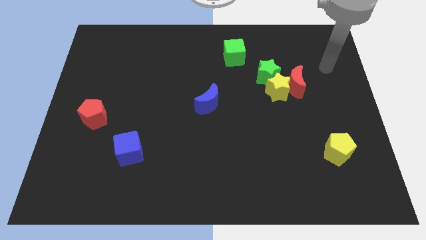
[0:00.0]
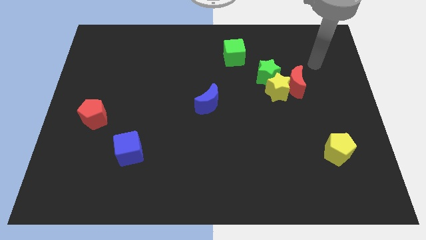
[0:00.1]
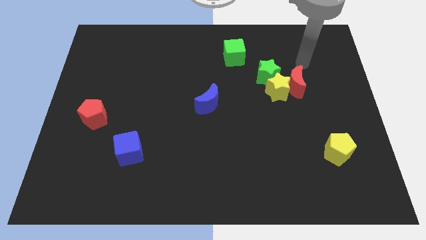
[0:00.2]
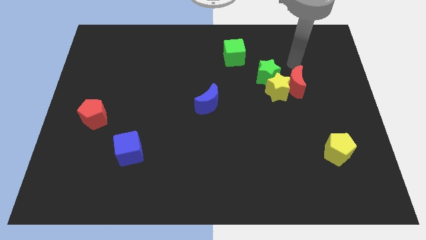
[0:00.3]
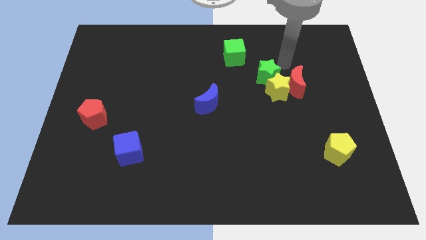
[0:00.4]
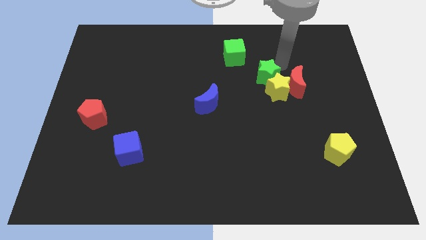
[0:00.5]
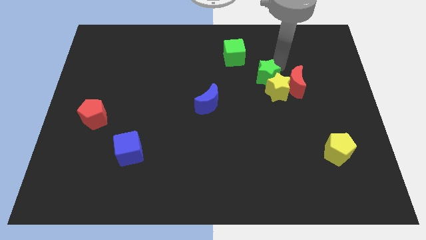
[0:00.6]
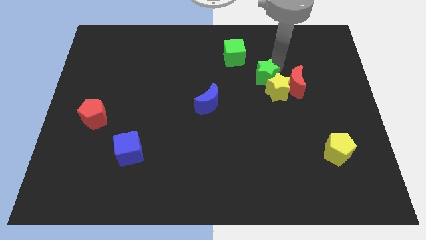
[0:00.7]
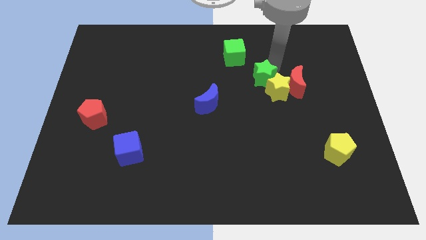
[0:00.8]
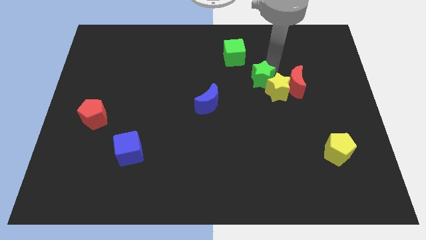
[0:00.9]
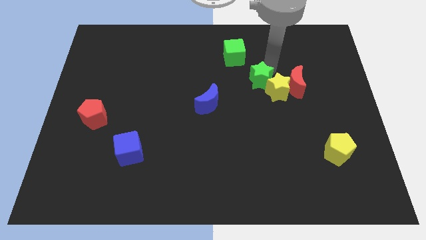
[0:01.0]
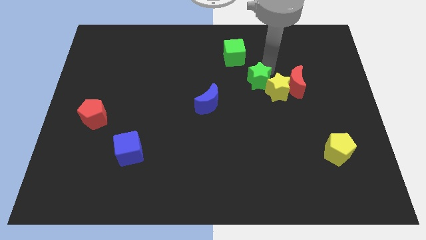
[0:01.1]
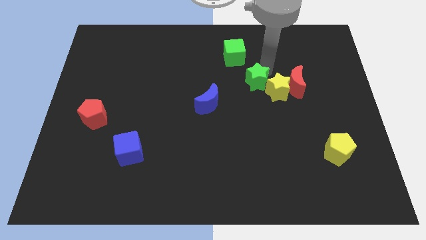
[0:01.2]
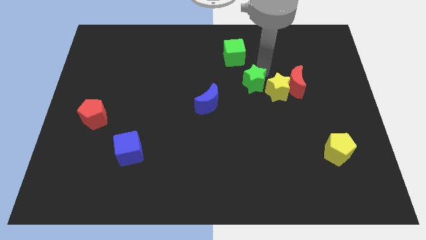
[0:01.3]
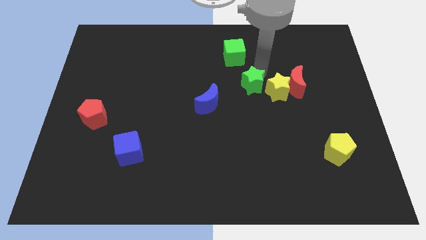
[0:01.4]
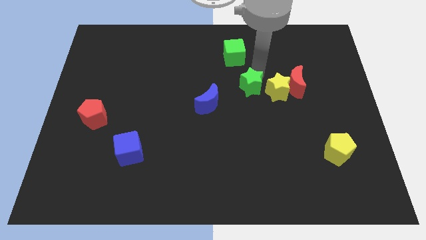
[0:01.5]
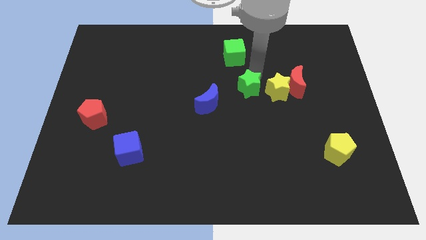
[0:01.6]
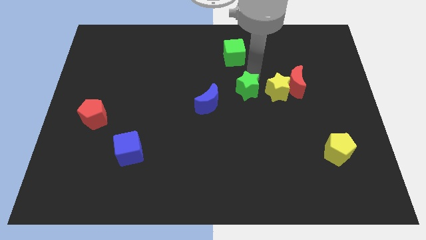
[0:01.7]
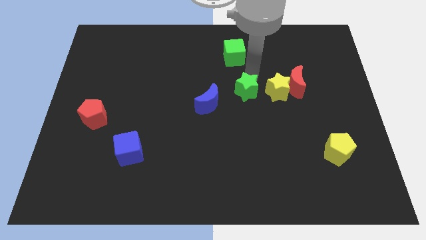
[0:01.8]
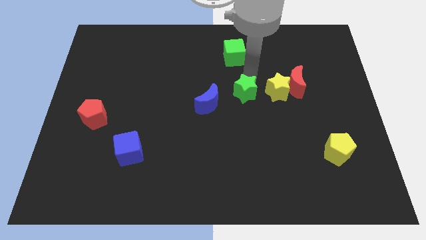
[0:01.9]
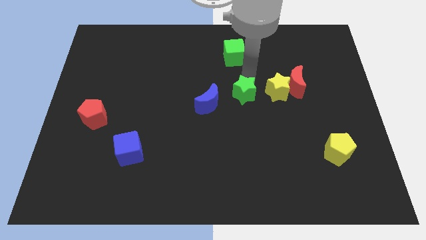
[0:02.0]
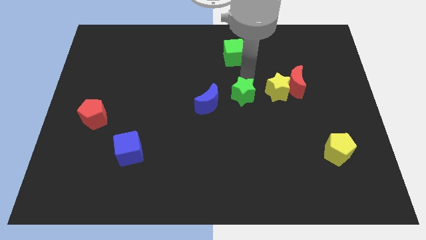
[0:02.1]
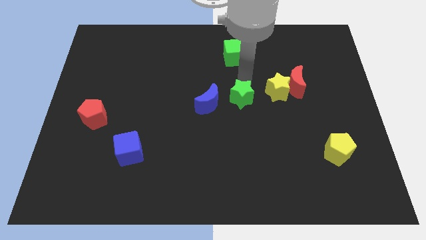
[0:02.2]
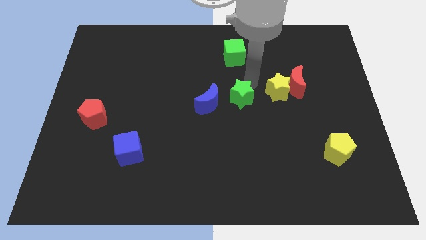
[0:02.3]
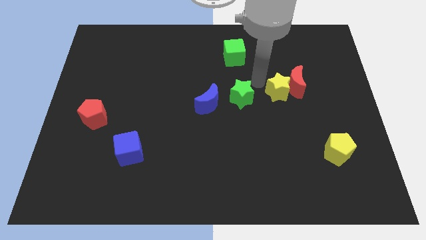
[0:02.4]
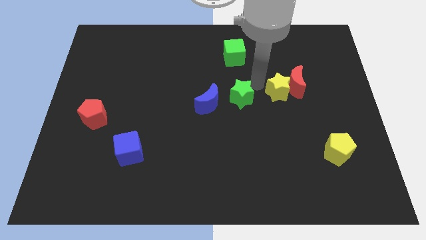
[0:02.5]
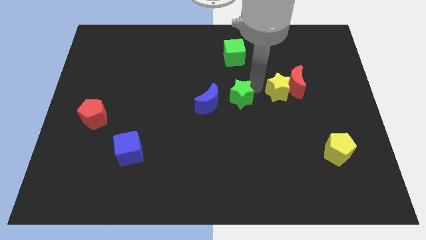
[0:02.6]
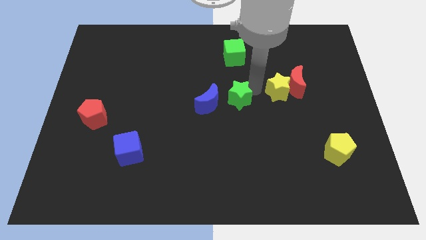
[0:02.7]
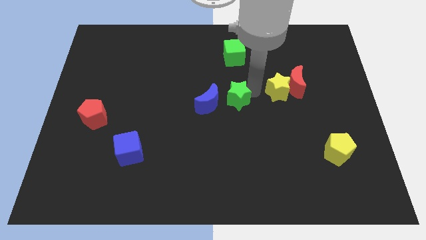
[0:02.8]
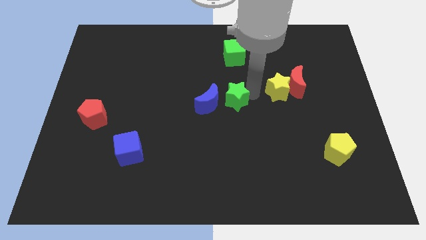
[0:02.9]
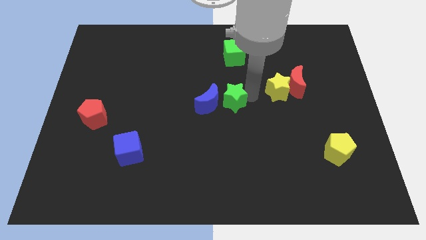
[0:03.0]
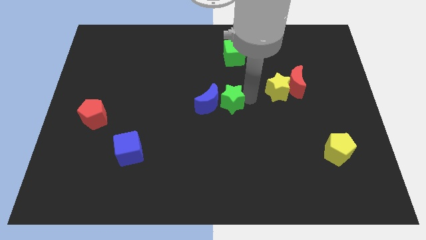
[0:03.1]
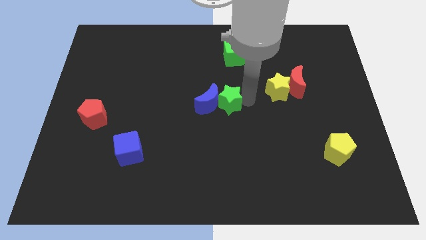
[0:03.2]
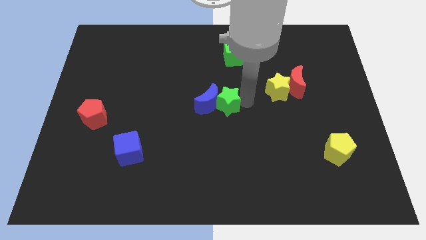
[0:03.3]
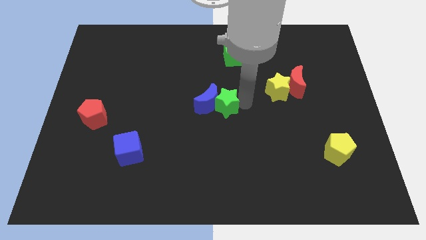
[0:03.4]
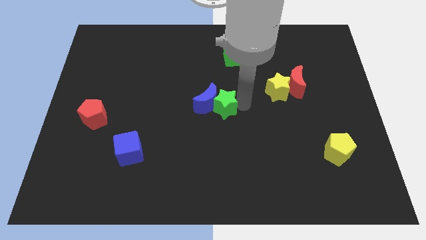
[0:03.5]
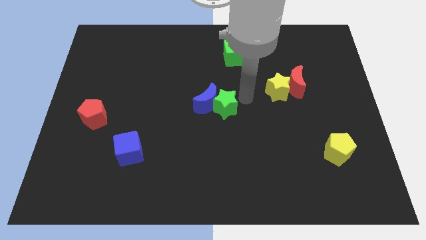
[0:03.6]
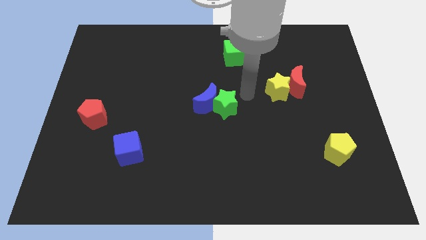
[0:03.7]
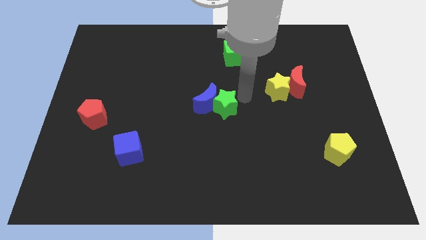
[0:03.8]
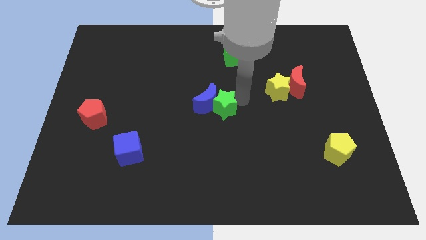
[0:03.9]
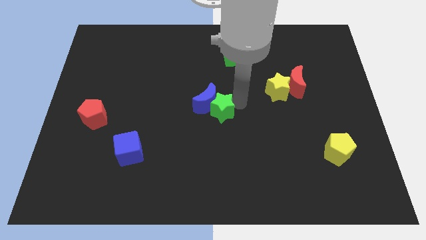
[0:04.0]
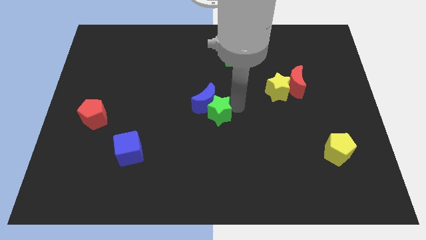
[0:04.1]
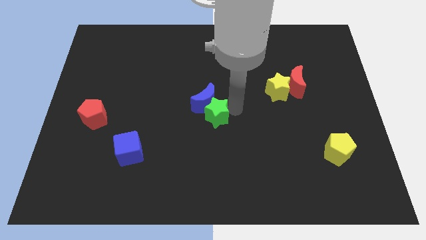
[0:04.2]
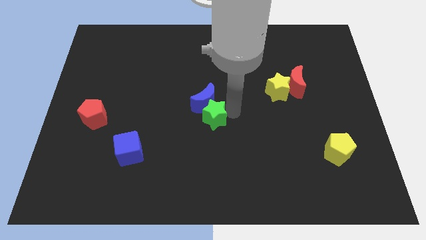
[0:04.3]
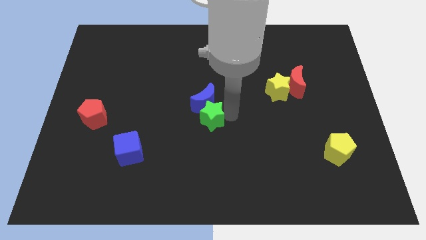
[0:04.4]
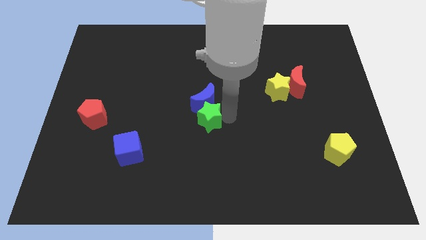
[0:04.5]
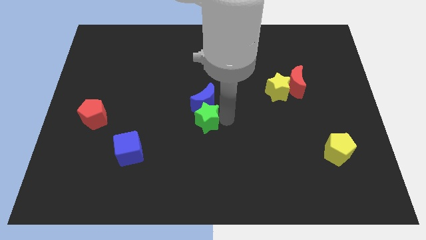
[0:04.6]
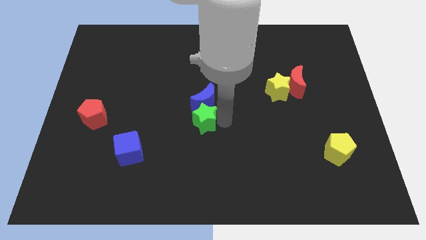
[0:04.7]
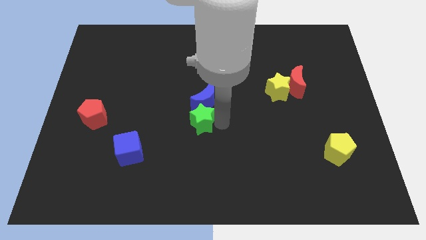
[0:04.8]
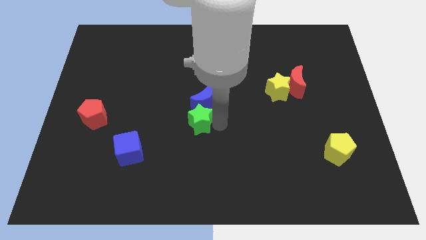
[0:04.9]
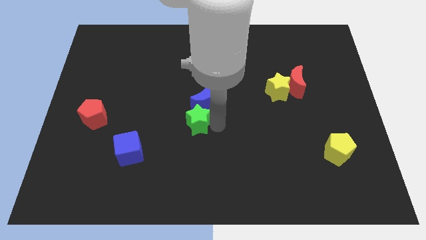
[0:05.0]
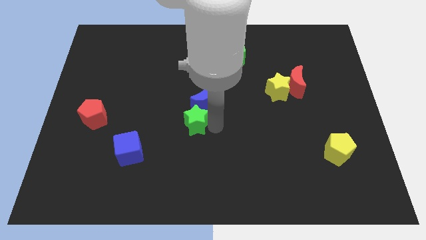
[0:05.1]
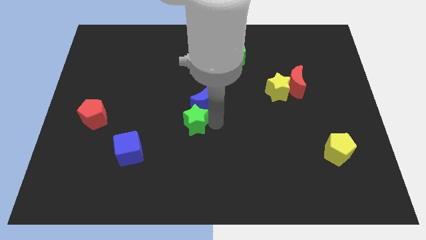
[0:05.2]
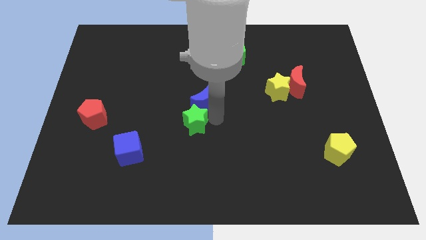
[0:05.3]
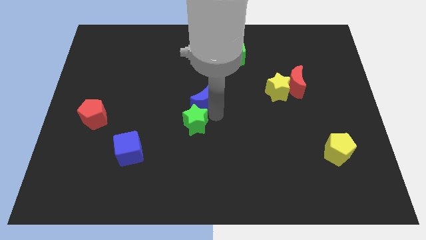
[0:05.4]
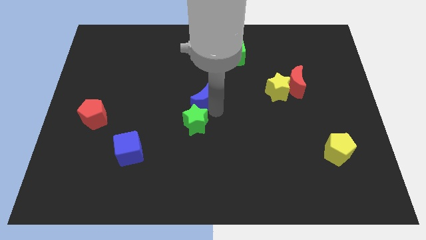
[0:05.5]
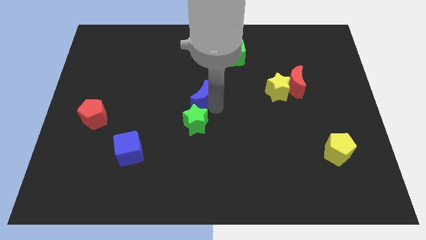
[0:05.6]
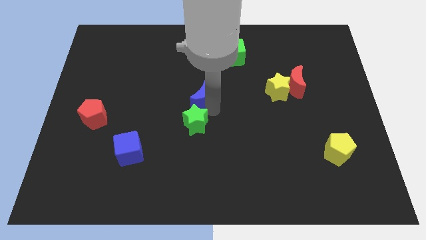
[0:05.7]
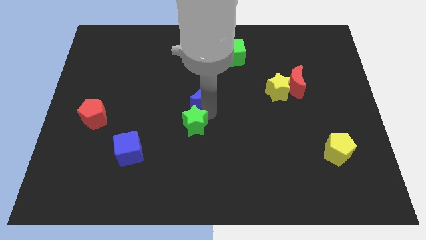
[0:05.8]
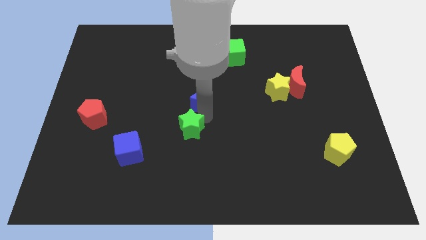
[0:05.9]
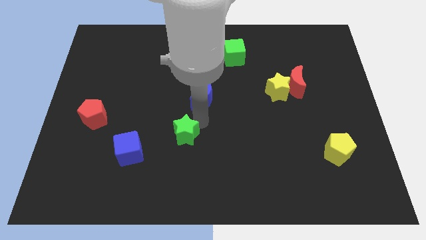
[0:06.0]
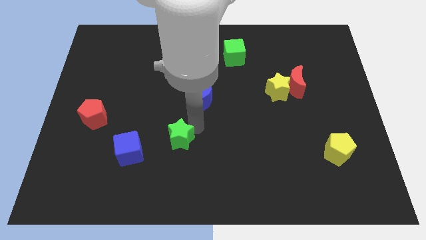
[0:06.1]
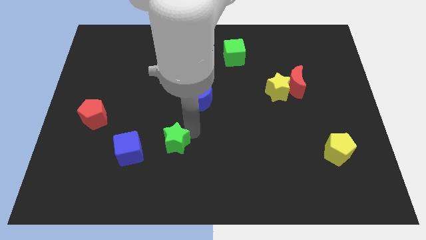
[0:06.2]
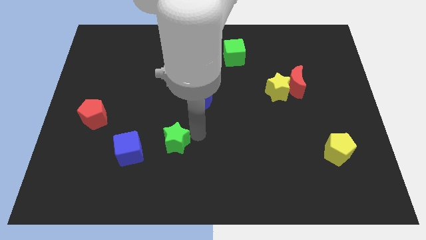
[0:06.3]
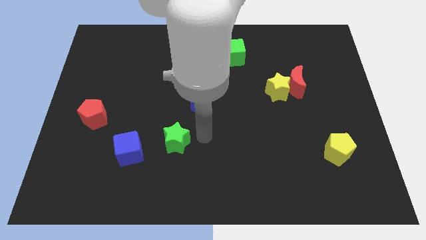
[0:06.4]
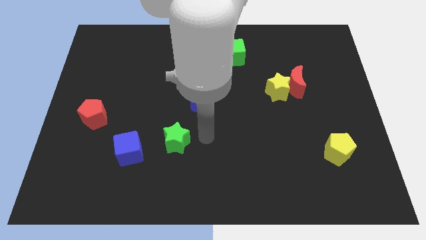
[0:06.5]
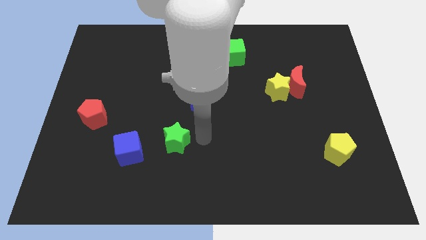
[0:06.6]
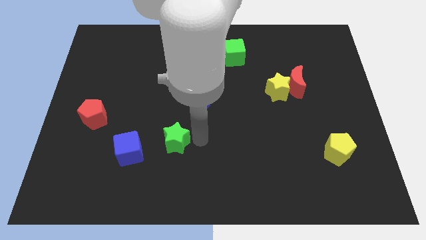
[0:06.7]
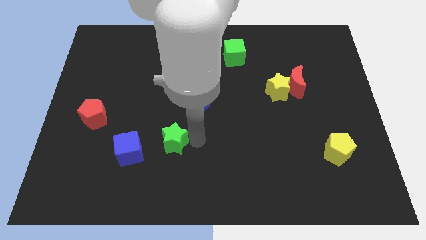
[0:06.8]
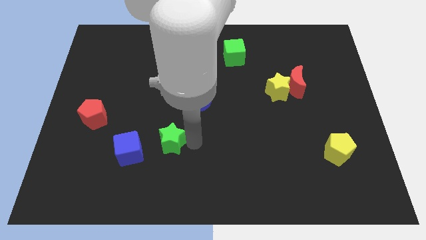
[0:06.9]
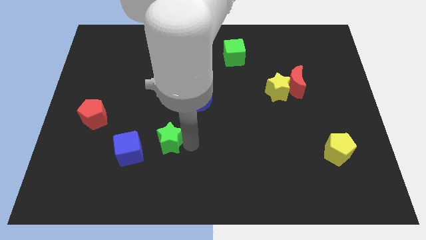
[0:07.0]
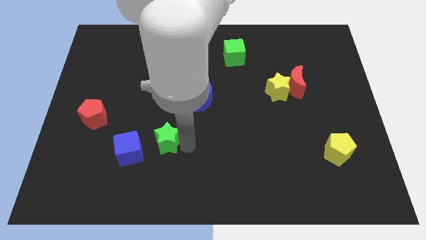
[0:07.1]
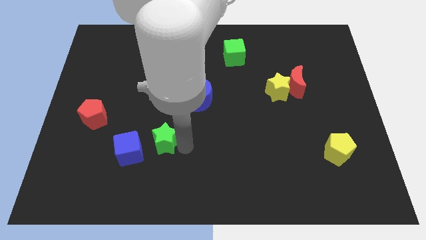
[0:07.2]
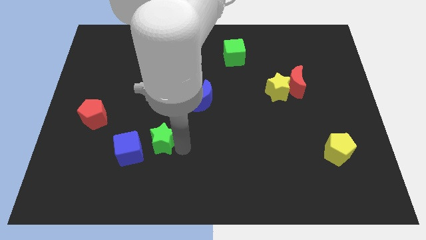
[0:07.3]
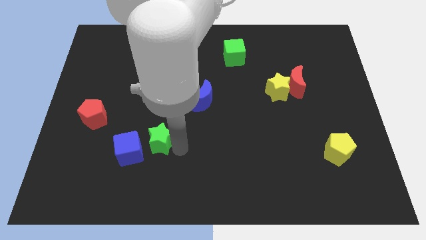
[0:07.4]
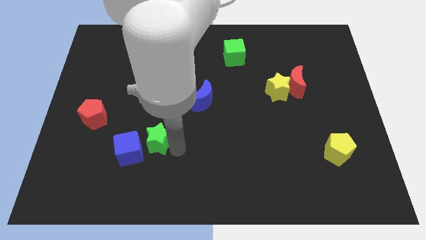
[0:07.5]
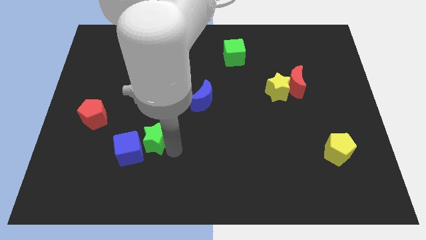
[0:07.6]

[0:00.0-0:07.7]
put the green star towards the blue cube
